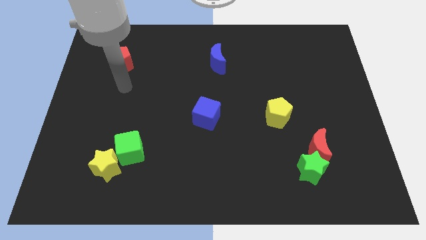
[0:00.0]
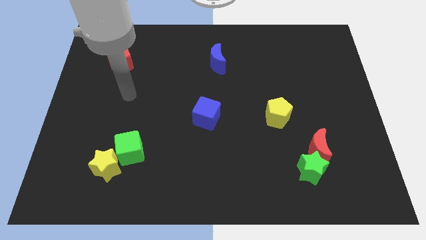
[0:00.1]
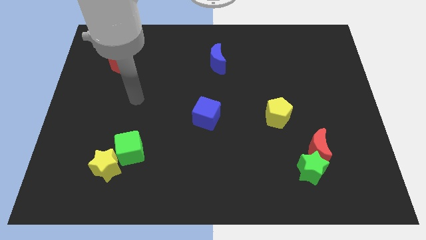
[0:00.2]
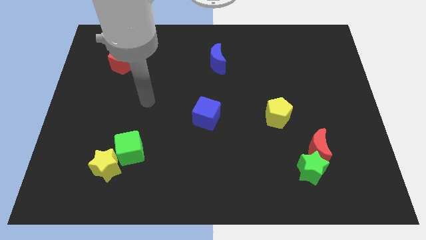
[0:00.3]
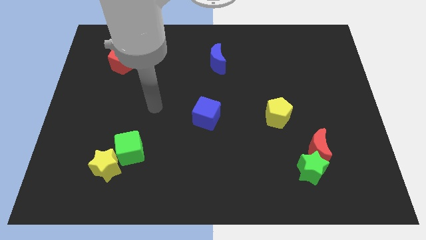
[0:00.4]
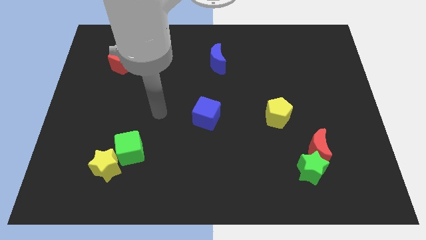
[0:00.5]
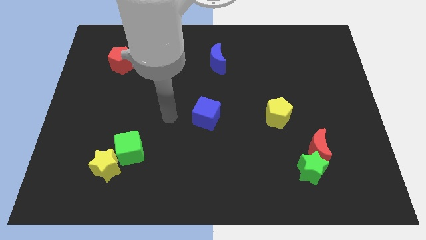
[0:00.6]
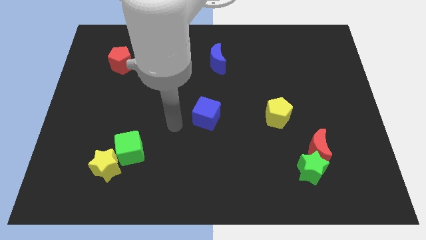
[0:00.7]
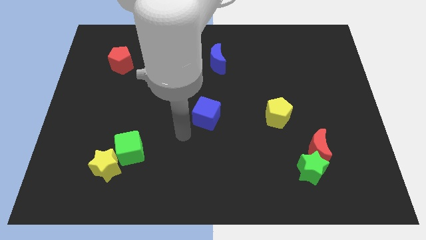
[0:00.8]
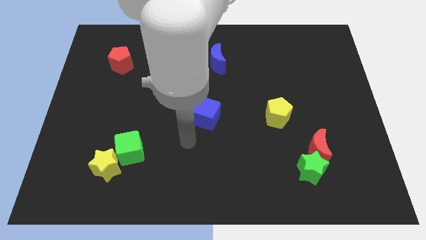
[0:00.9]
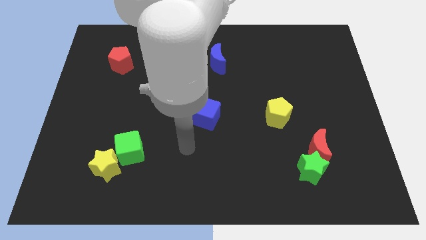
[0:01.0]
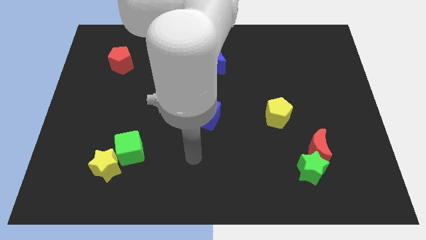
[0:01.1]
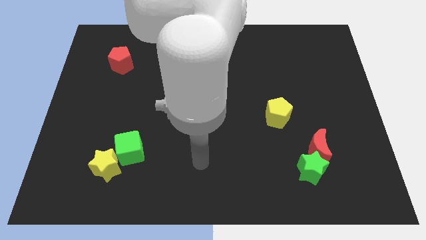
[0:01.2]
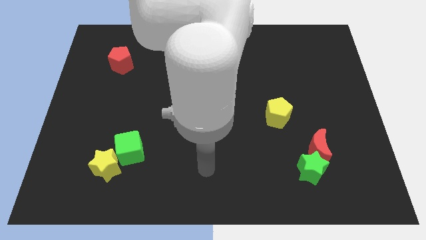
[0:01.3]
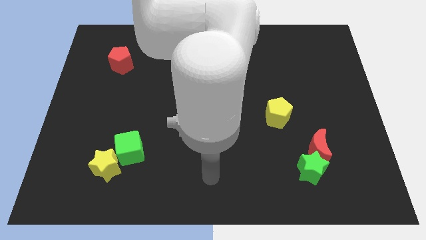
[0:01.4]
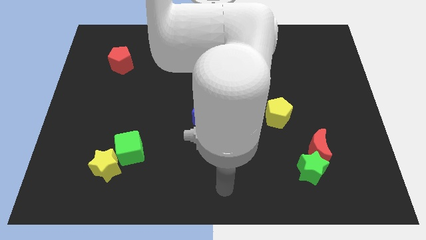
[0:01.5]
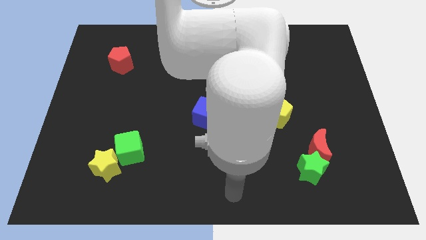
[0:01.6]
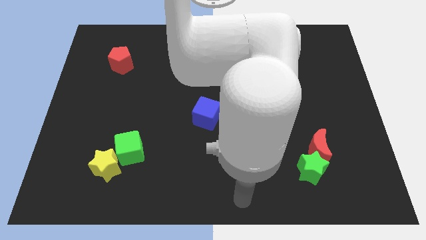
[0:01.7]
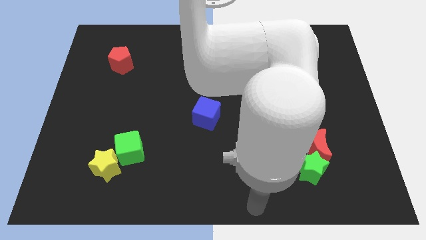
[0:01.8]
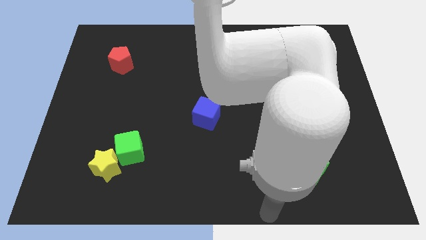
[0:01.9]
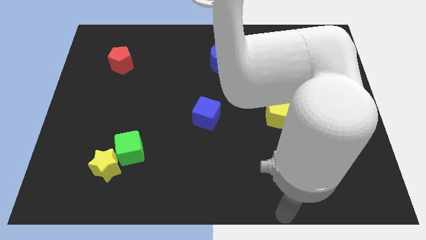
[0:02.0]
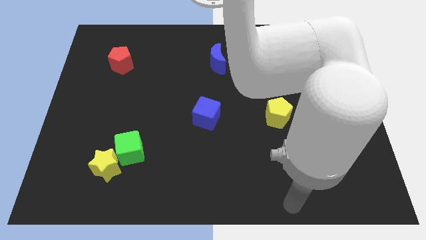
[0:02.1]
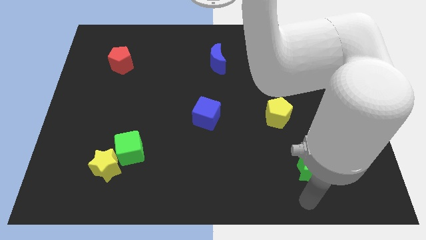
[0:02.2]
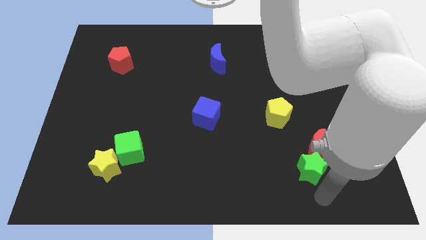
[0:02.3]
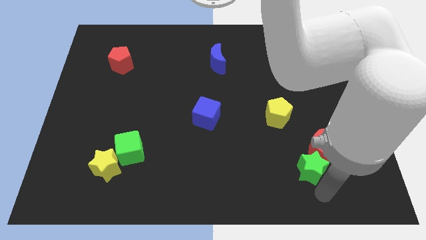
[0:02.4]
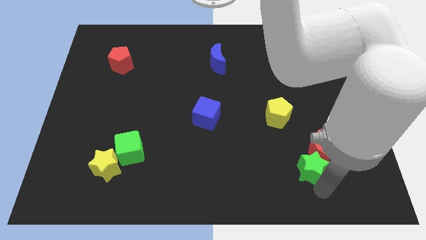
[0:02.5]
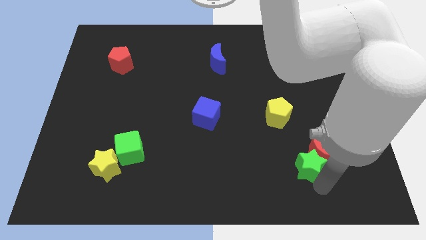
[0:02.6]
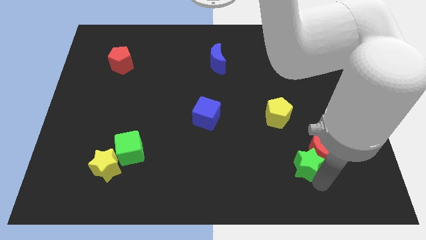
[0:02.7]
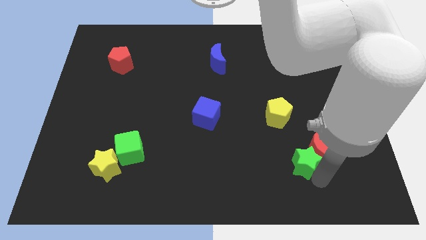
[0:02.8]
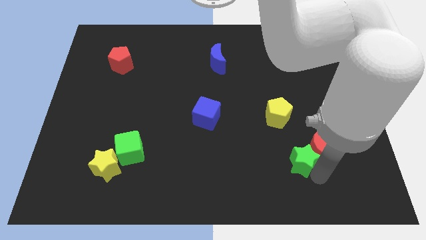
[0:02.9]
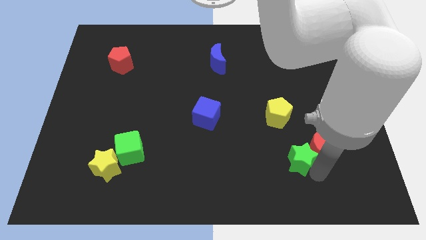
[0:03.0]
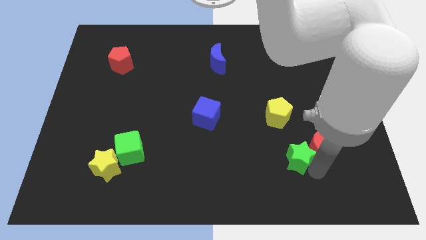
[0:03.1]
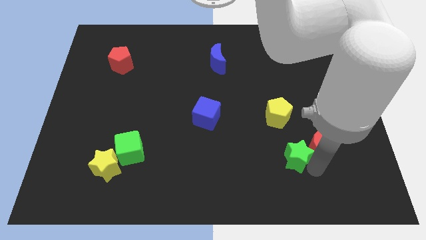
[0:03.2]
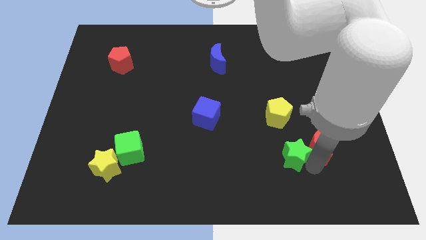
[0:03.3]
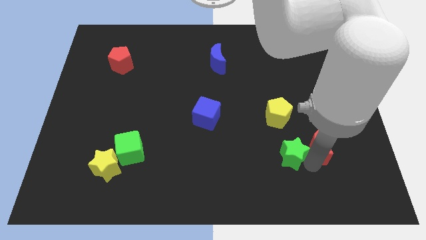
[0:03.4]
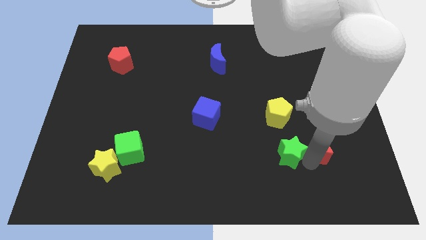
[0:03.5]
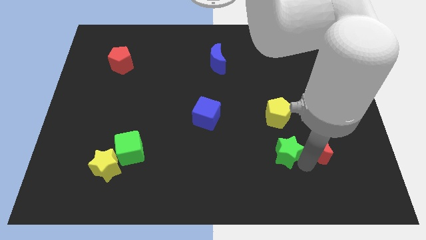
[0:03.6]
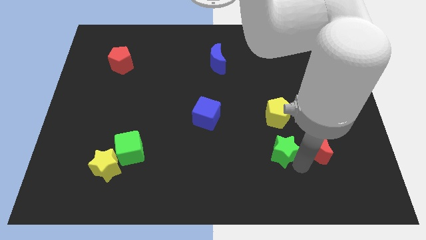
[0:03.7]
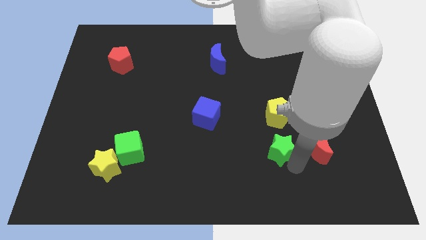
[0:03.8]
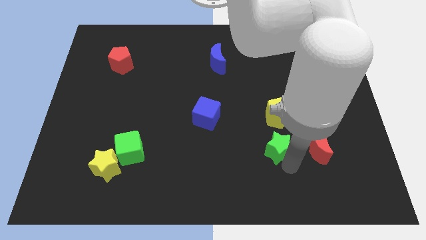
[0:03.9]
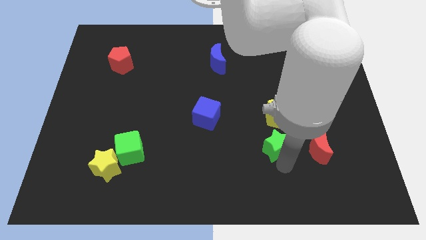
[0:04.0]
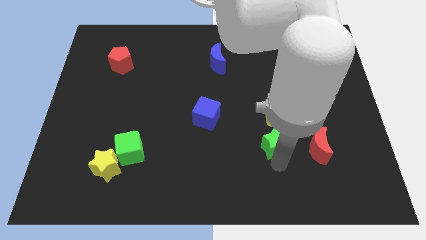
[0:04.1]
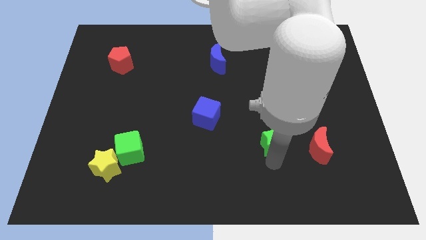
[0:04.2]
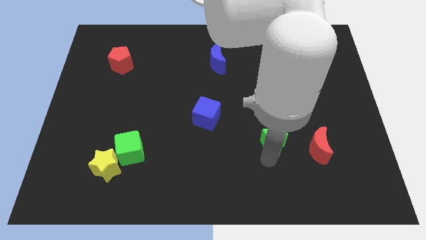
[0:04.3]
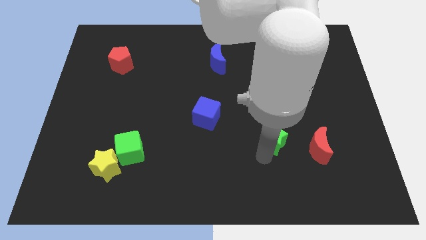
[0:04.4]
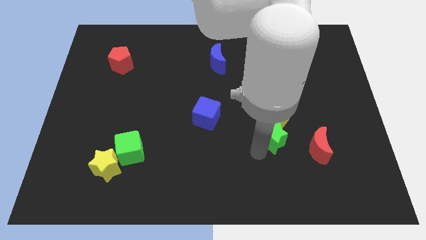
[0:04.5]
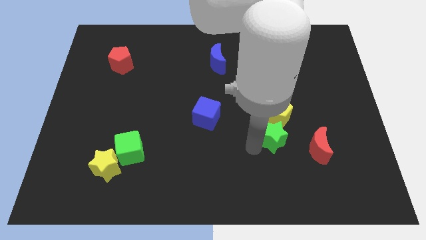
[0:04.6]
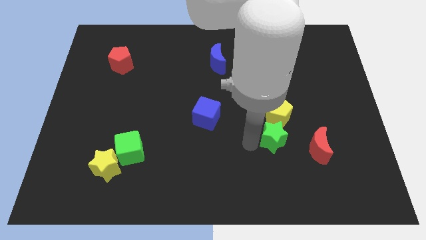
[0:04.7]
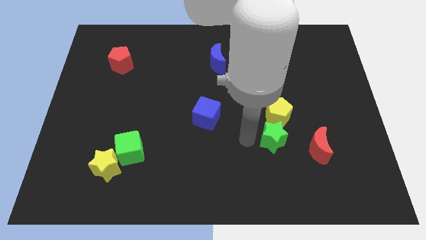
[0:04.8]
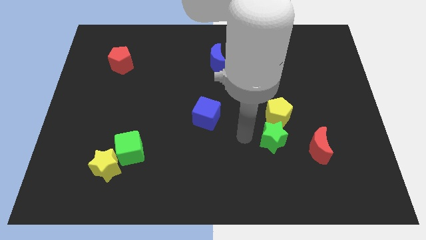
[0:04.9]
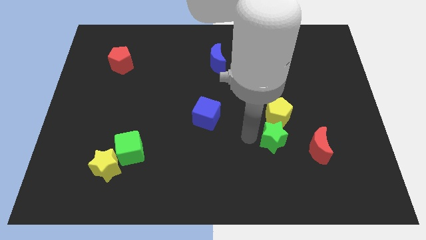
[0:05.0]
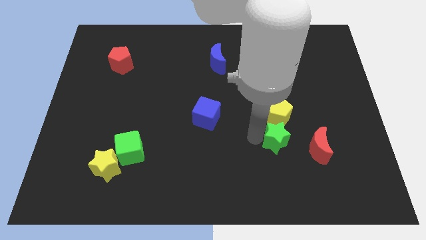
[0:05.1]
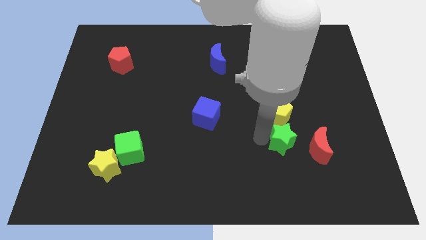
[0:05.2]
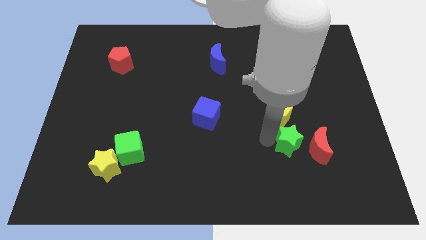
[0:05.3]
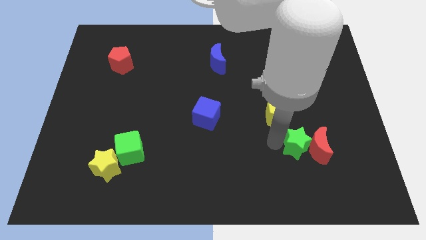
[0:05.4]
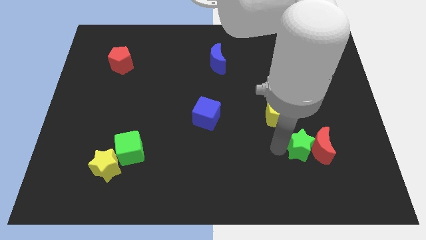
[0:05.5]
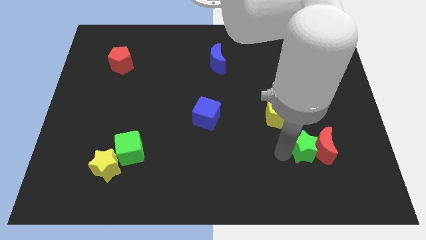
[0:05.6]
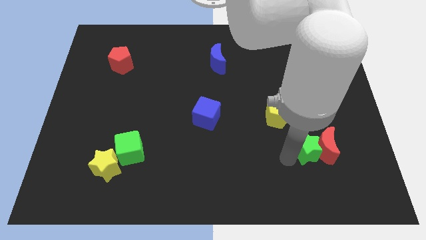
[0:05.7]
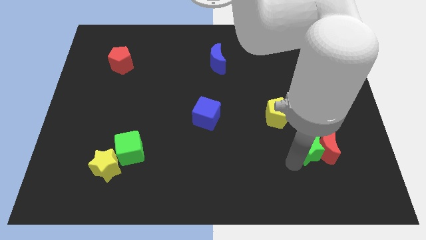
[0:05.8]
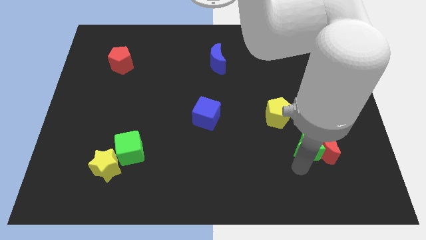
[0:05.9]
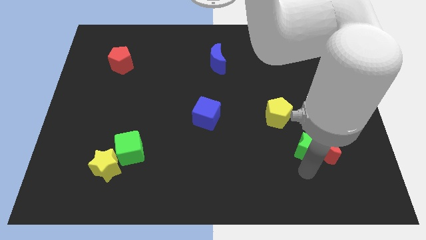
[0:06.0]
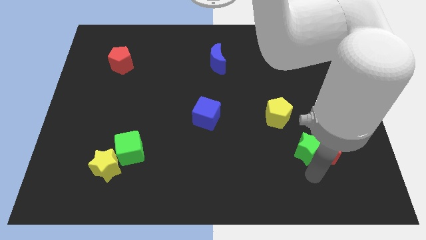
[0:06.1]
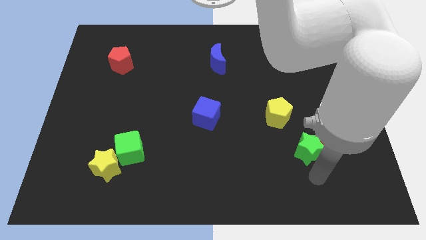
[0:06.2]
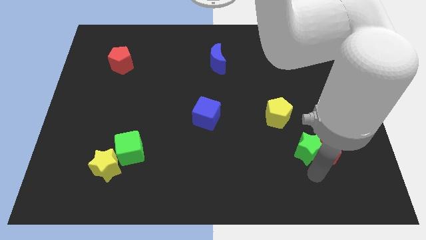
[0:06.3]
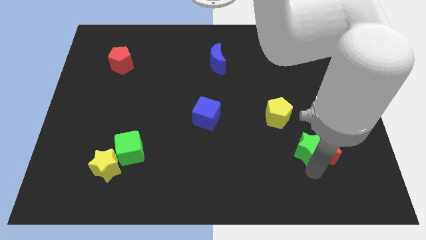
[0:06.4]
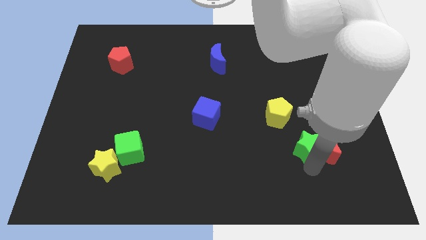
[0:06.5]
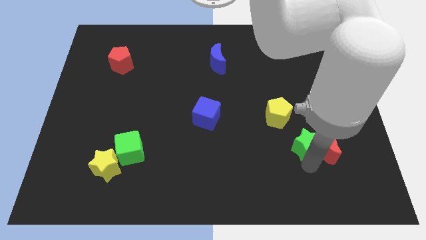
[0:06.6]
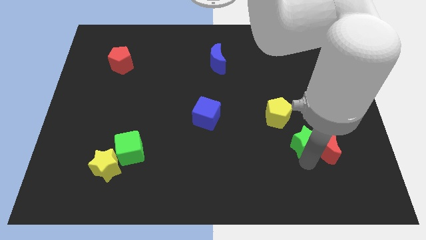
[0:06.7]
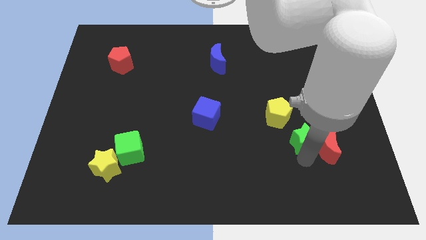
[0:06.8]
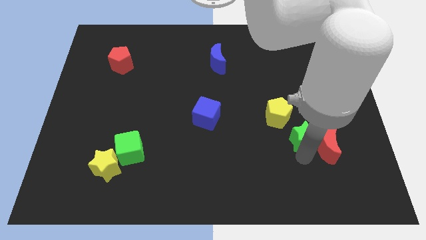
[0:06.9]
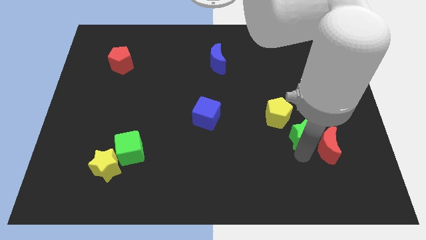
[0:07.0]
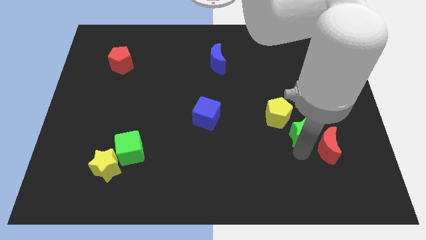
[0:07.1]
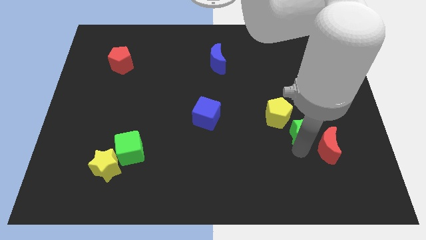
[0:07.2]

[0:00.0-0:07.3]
put the green star to the right side of the yellow pentagon
